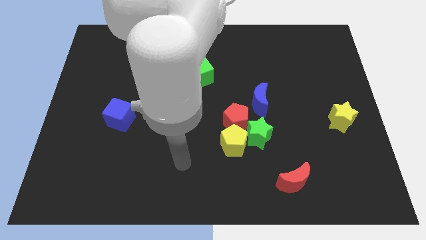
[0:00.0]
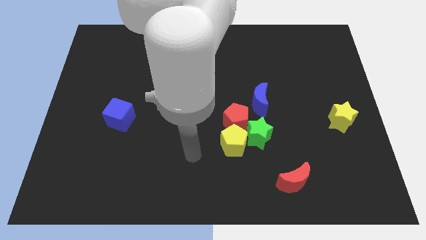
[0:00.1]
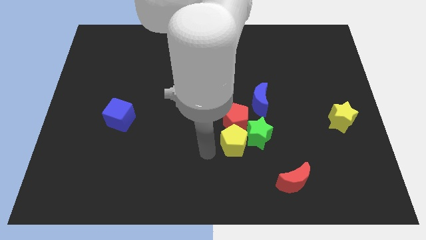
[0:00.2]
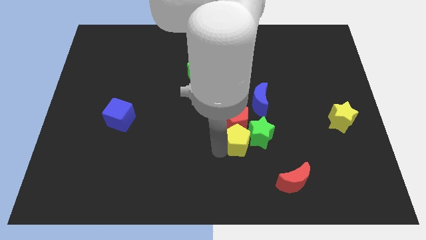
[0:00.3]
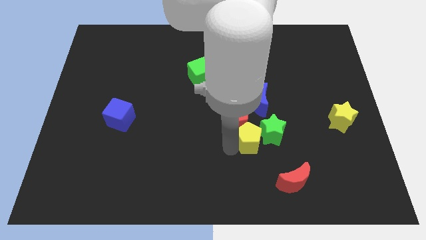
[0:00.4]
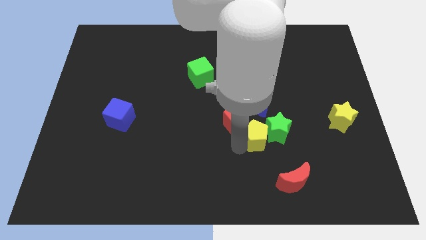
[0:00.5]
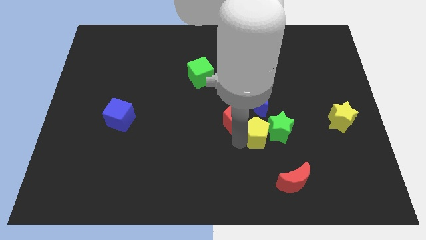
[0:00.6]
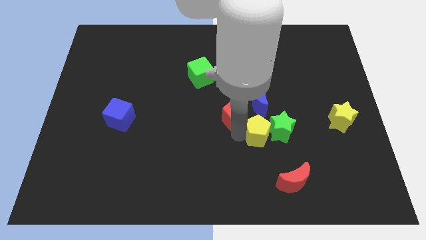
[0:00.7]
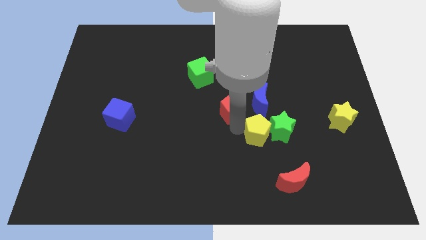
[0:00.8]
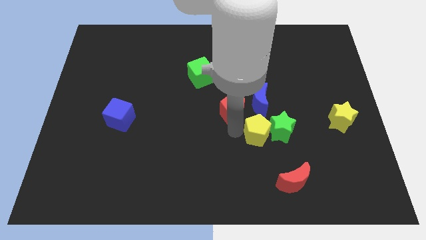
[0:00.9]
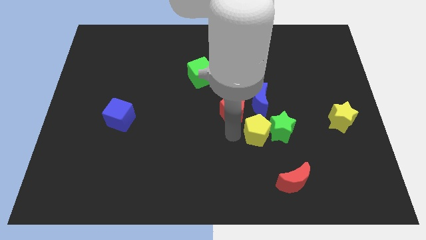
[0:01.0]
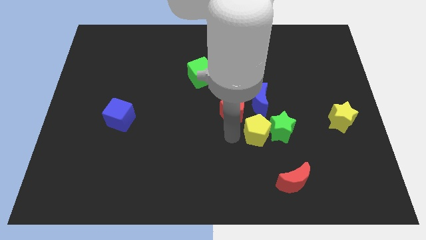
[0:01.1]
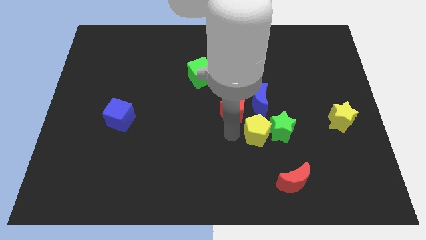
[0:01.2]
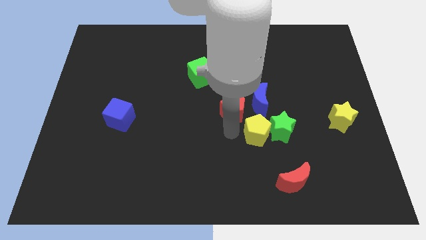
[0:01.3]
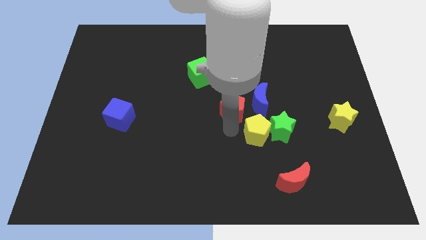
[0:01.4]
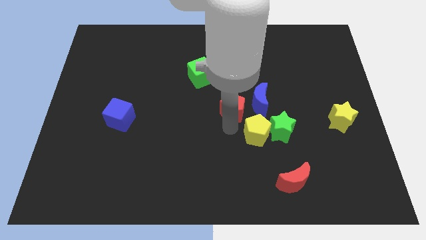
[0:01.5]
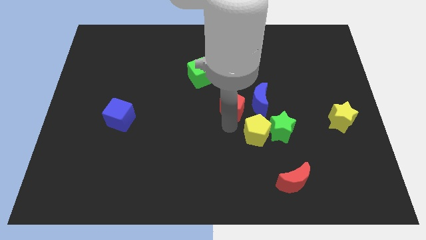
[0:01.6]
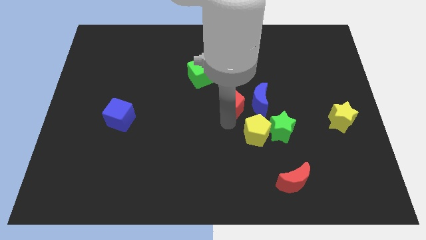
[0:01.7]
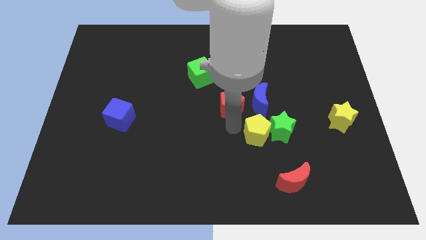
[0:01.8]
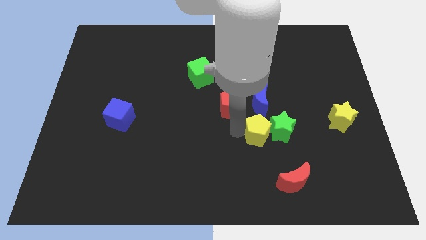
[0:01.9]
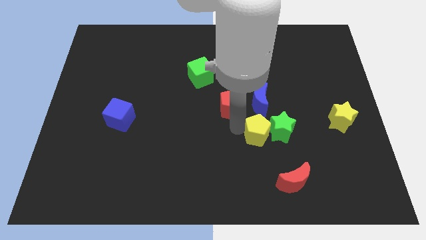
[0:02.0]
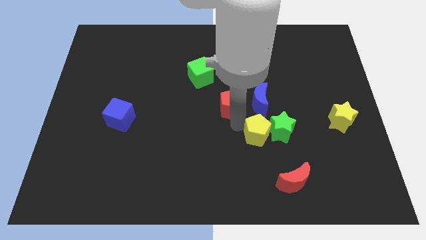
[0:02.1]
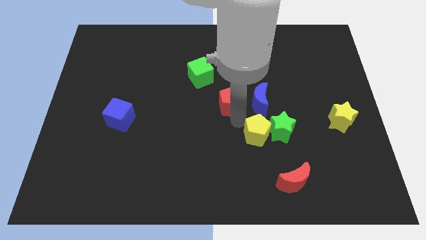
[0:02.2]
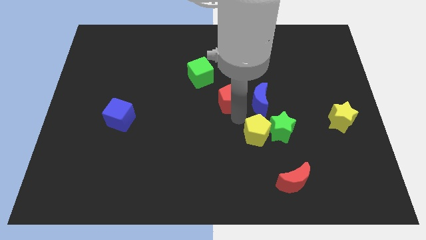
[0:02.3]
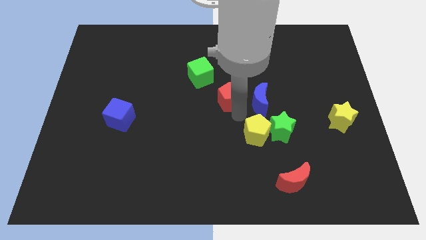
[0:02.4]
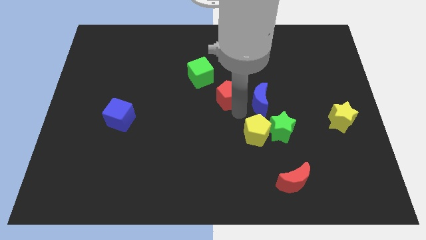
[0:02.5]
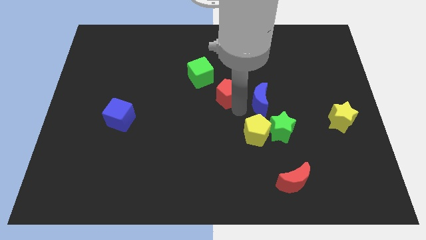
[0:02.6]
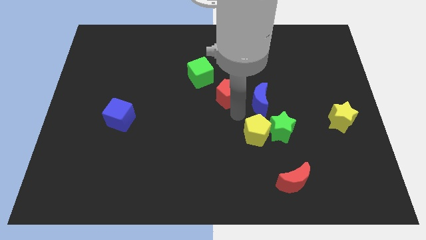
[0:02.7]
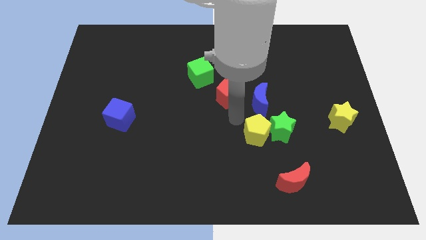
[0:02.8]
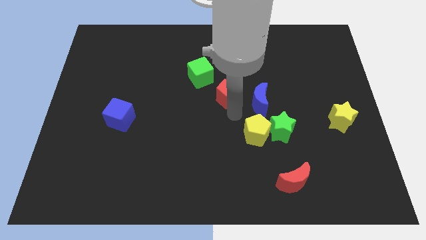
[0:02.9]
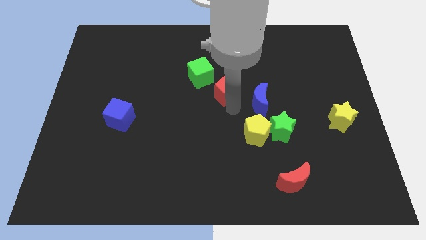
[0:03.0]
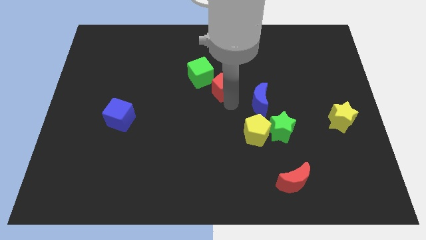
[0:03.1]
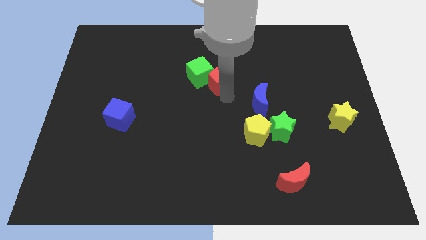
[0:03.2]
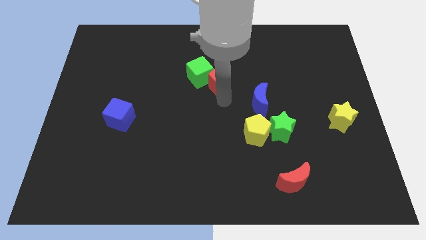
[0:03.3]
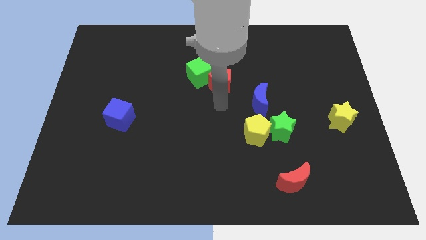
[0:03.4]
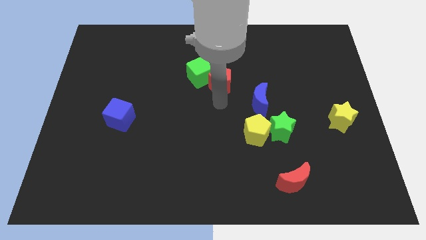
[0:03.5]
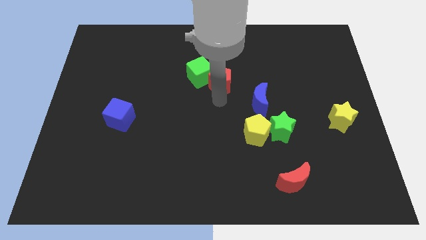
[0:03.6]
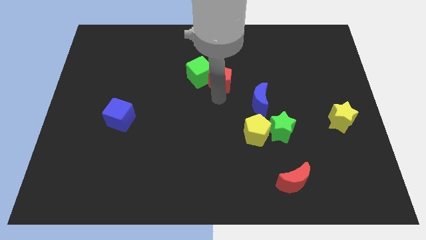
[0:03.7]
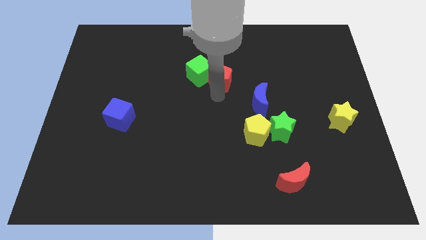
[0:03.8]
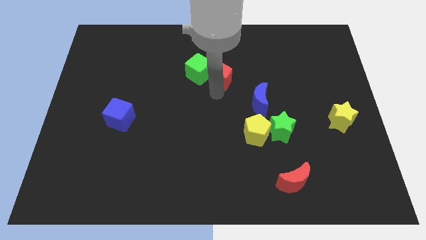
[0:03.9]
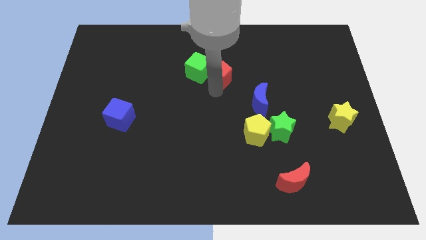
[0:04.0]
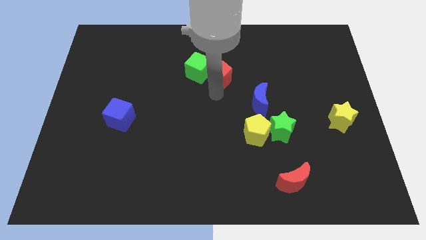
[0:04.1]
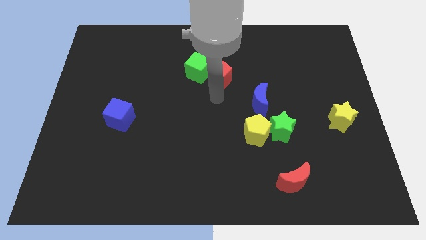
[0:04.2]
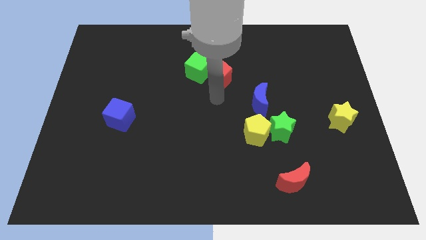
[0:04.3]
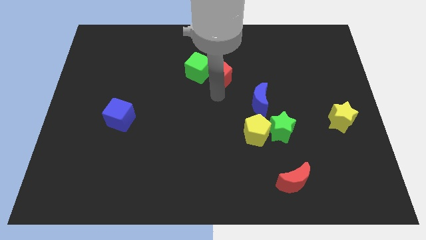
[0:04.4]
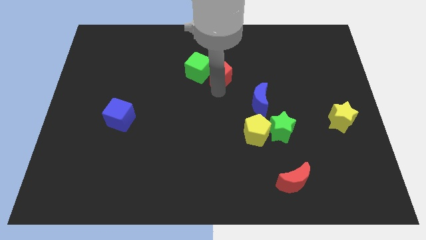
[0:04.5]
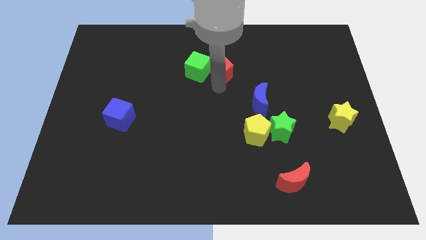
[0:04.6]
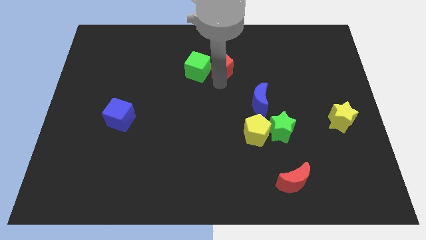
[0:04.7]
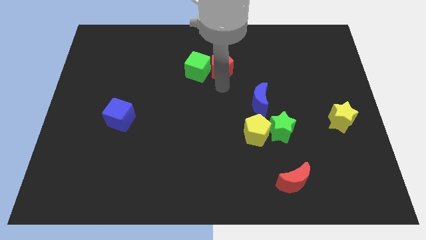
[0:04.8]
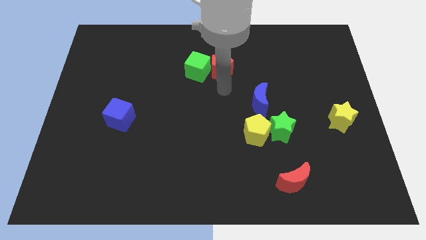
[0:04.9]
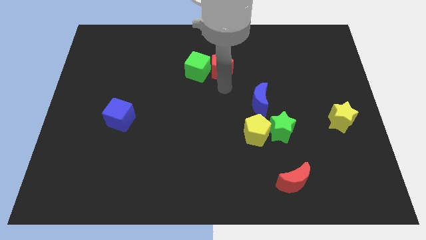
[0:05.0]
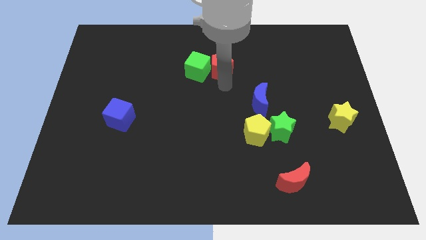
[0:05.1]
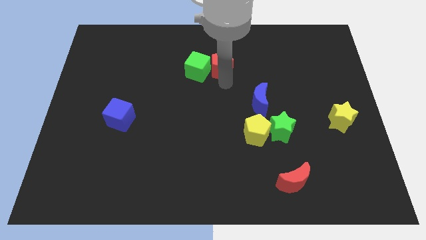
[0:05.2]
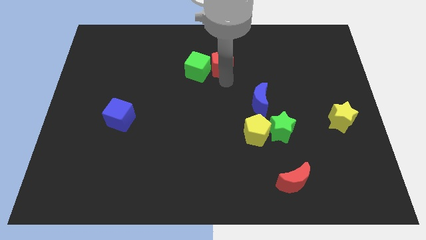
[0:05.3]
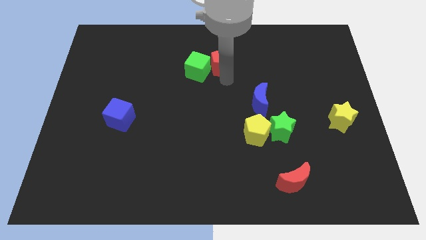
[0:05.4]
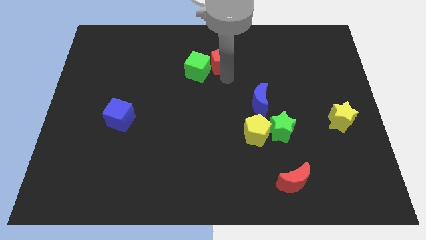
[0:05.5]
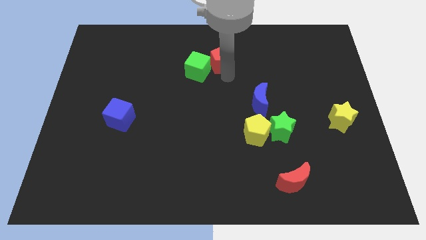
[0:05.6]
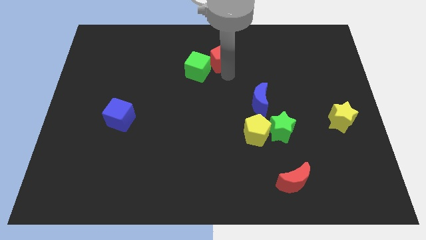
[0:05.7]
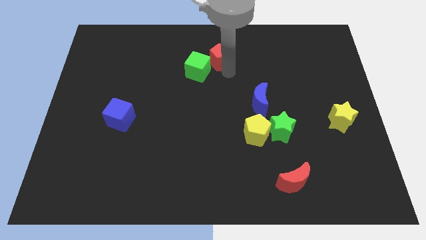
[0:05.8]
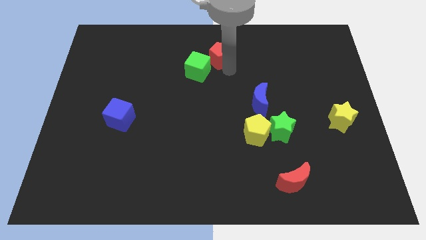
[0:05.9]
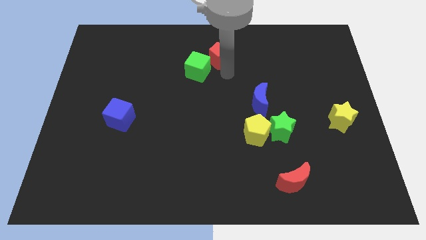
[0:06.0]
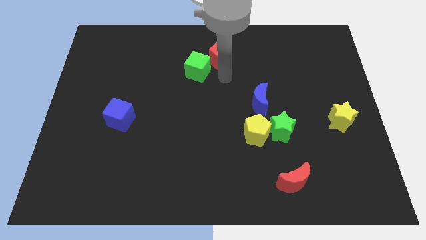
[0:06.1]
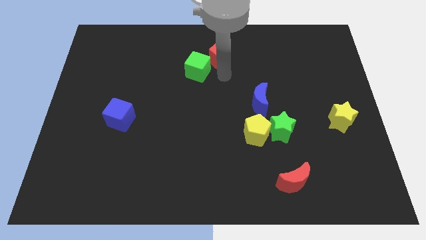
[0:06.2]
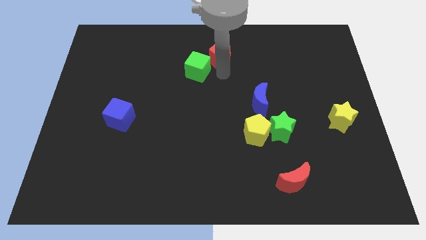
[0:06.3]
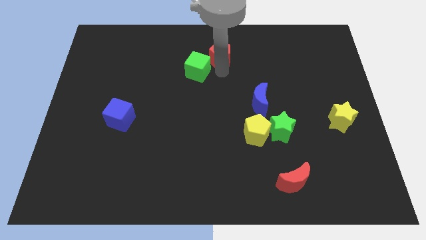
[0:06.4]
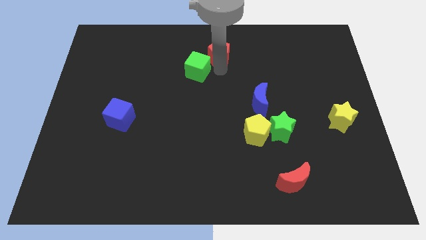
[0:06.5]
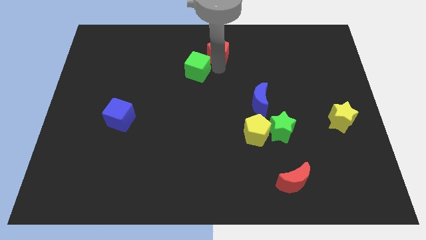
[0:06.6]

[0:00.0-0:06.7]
push the red pentagon to the top side
